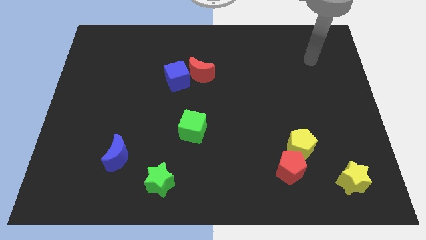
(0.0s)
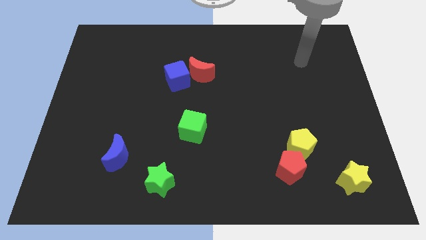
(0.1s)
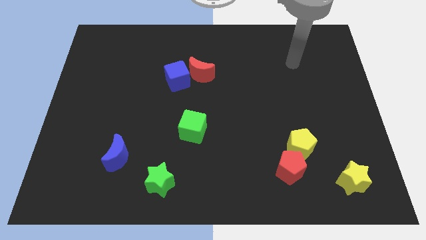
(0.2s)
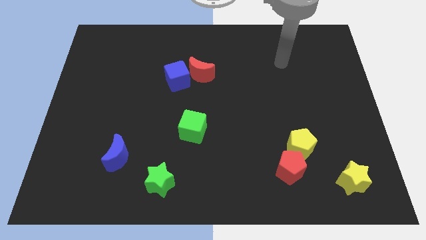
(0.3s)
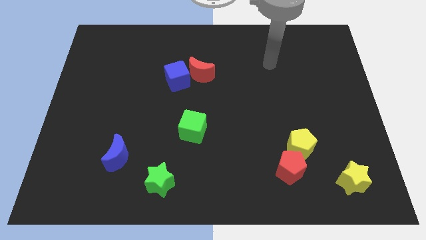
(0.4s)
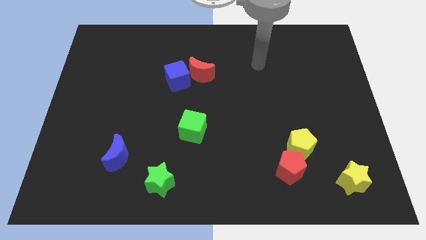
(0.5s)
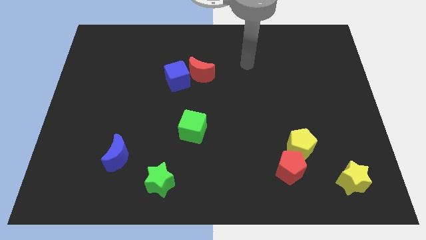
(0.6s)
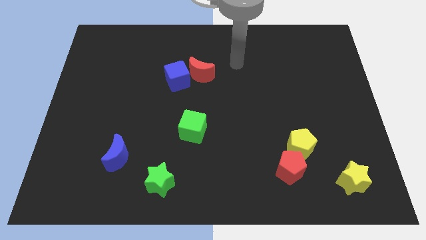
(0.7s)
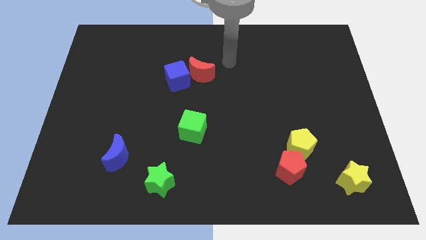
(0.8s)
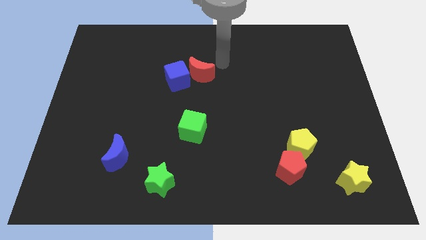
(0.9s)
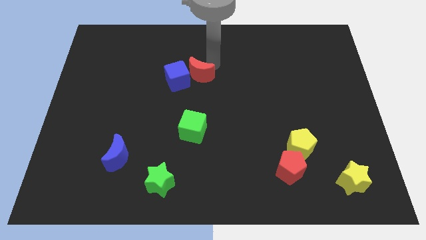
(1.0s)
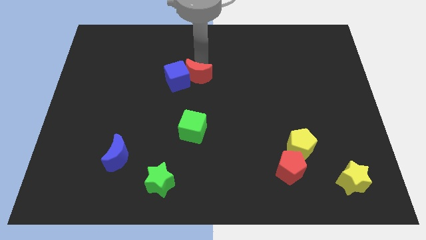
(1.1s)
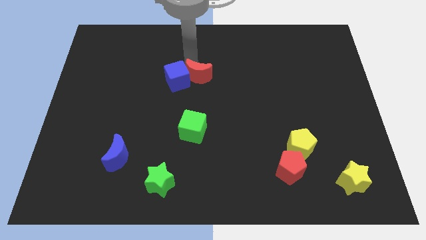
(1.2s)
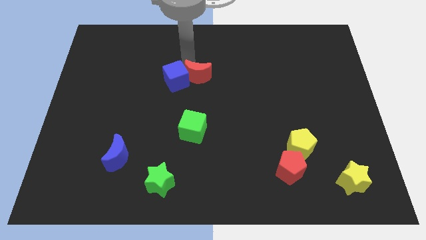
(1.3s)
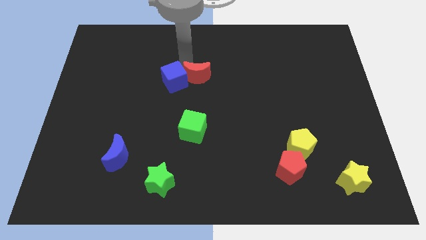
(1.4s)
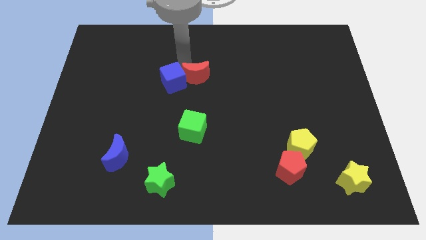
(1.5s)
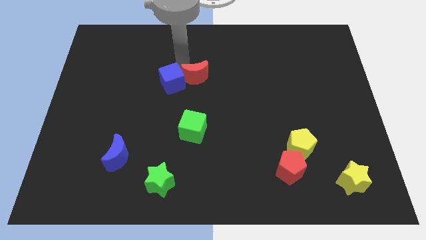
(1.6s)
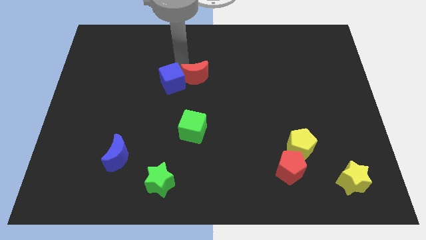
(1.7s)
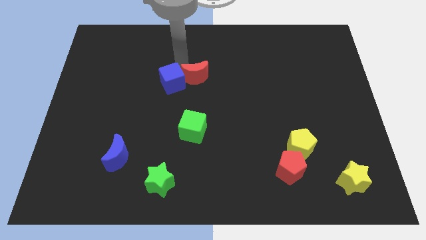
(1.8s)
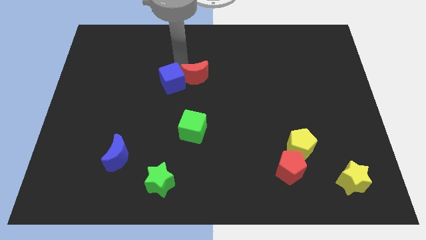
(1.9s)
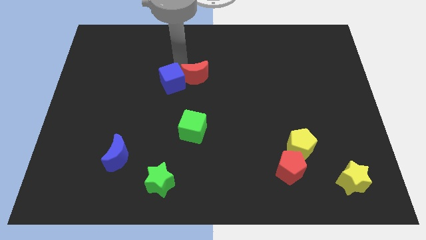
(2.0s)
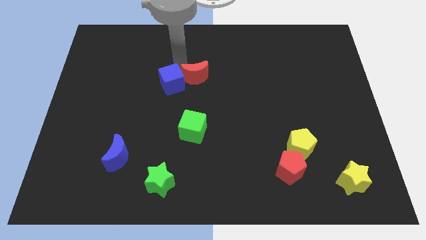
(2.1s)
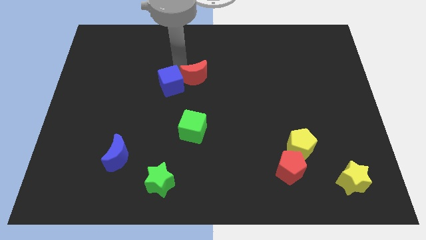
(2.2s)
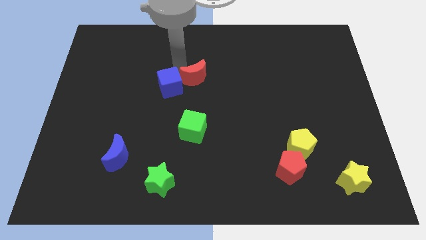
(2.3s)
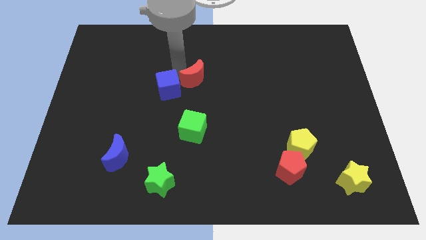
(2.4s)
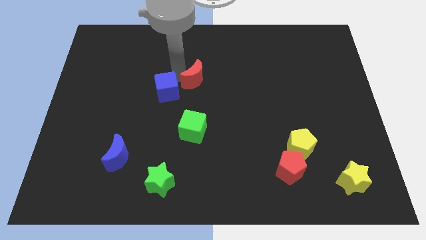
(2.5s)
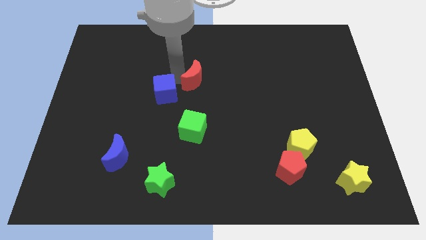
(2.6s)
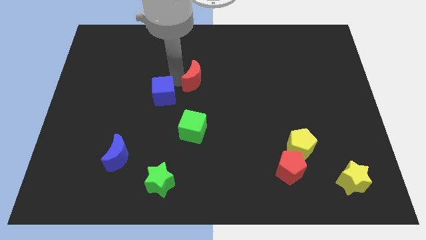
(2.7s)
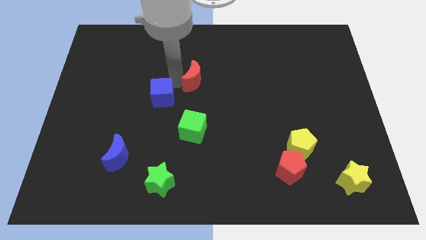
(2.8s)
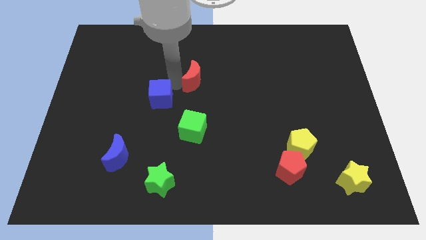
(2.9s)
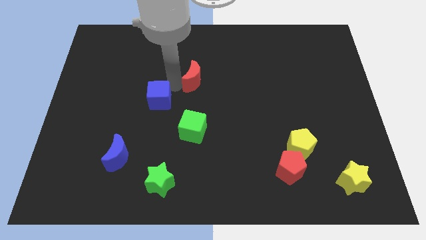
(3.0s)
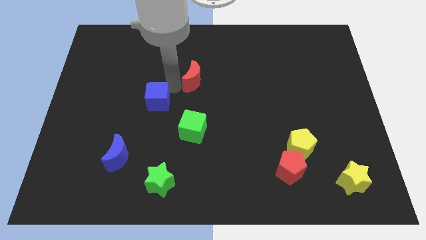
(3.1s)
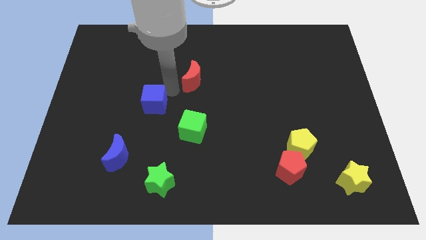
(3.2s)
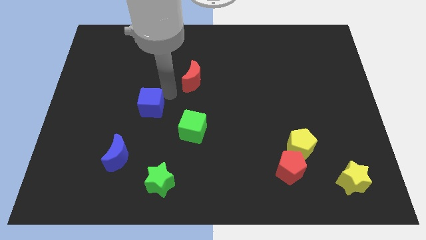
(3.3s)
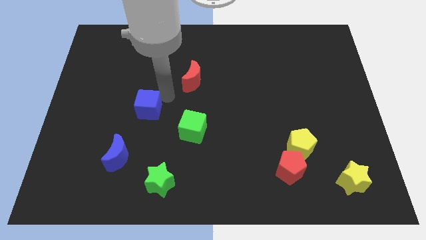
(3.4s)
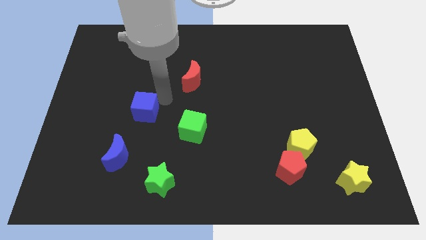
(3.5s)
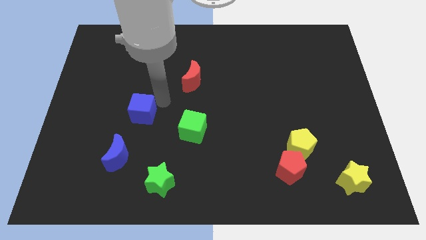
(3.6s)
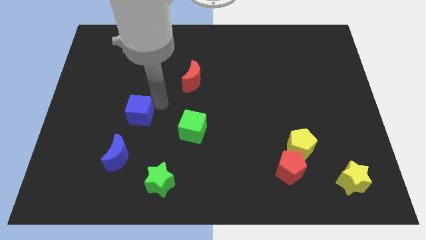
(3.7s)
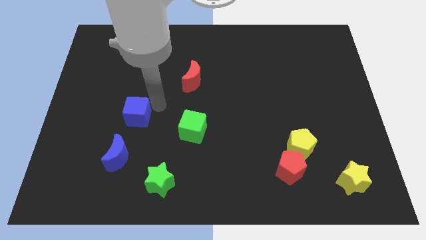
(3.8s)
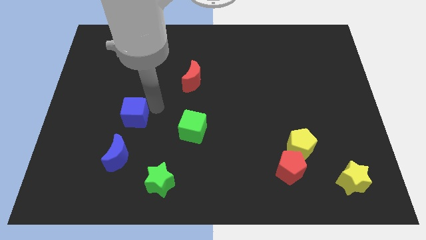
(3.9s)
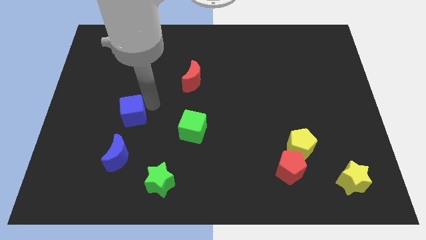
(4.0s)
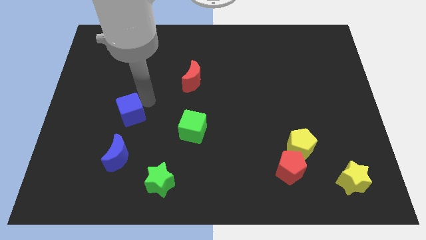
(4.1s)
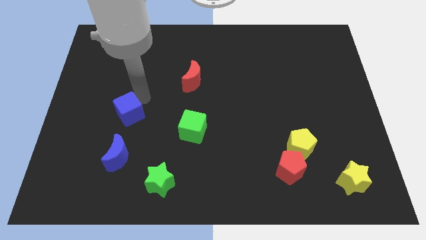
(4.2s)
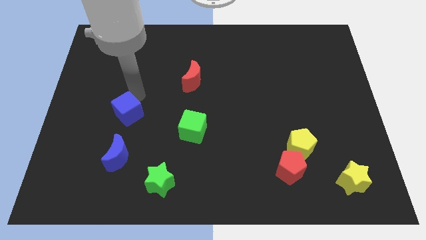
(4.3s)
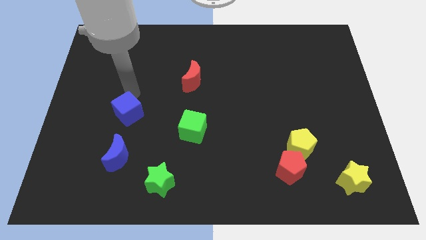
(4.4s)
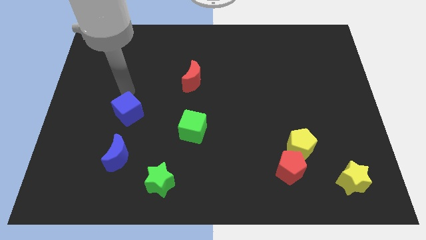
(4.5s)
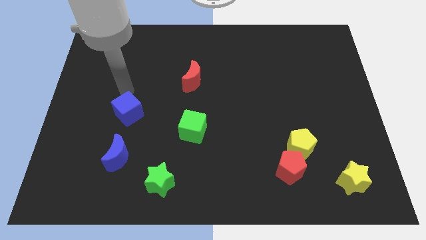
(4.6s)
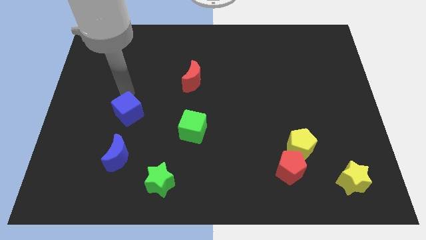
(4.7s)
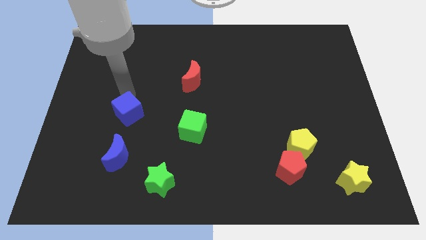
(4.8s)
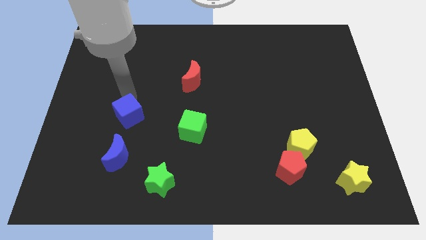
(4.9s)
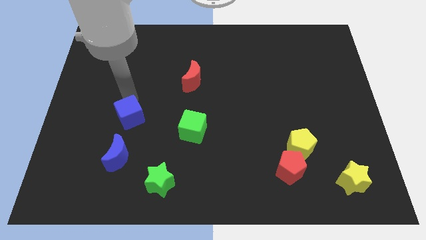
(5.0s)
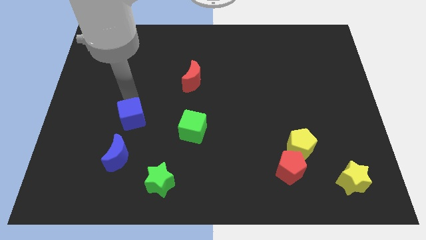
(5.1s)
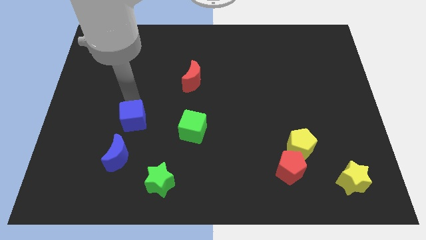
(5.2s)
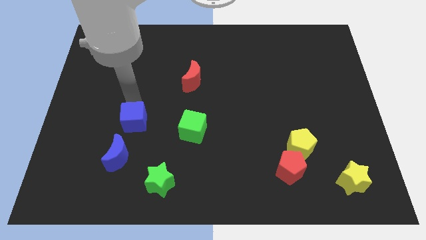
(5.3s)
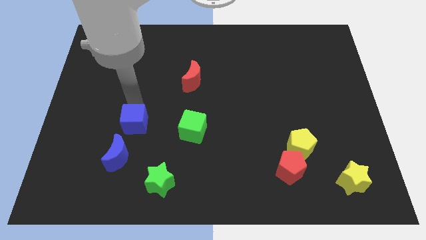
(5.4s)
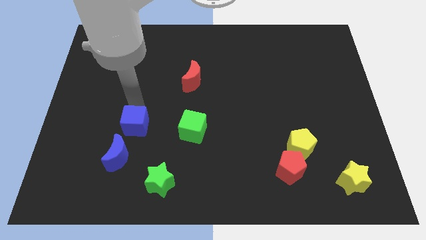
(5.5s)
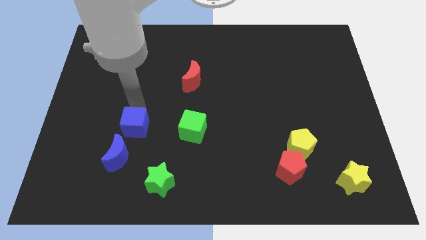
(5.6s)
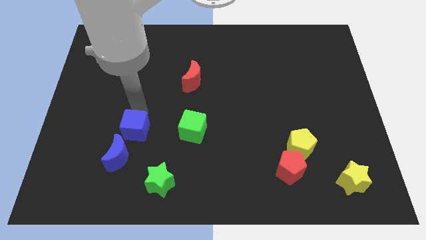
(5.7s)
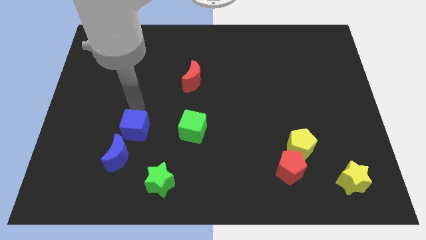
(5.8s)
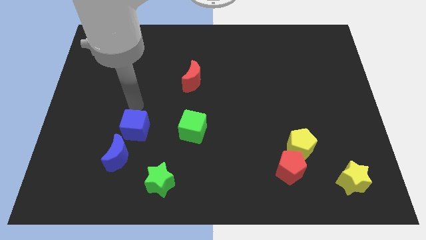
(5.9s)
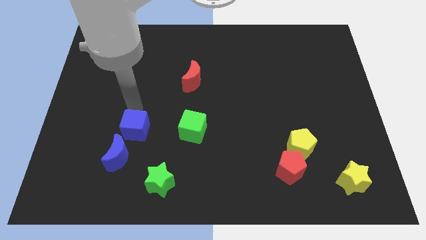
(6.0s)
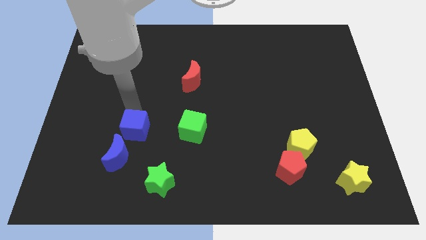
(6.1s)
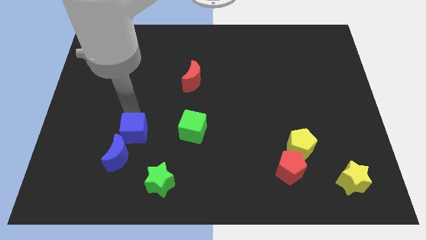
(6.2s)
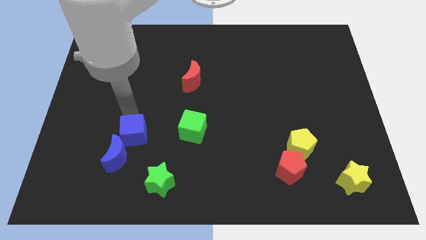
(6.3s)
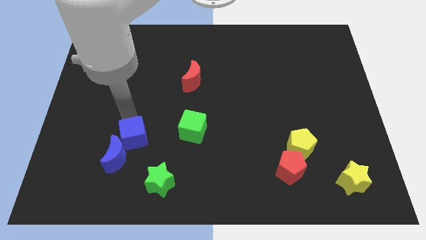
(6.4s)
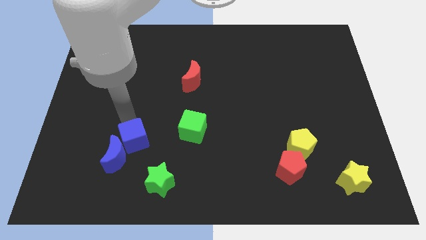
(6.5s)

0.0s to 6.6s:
move the blue cube diagonally up and to the left of the green star
